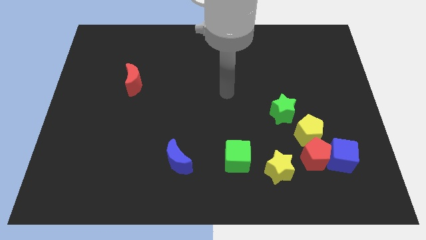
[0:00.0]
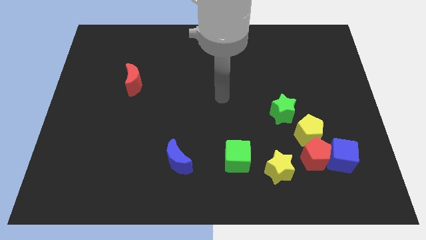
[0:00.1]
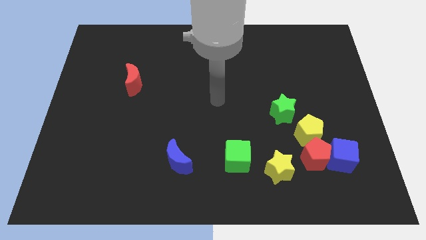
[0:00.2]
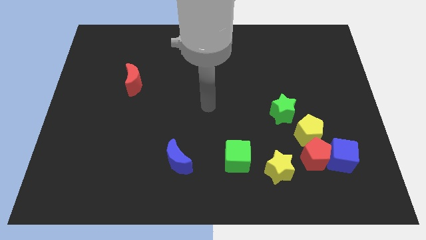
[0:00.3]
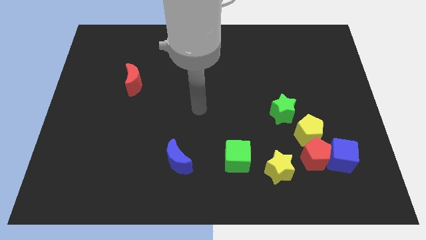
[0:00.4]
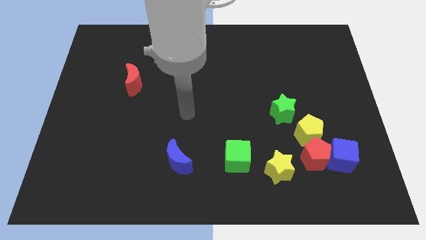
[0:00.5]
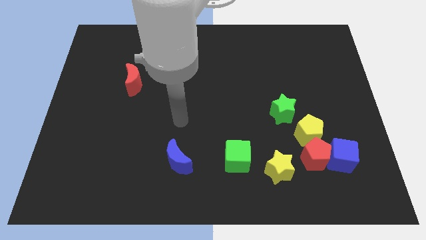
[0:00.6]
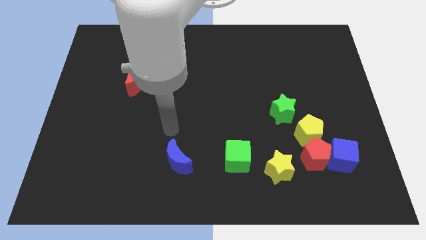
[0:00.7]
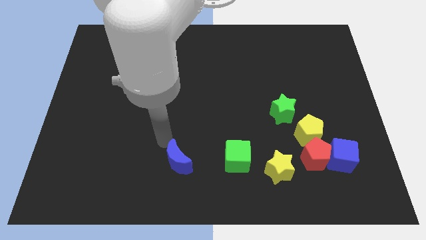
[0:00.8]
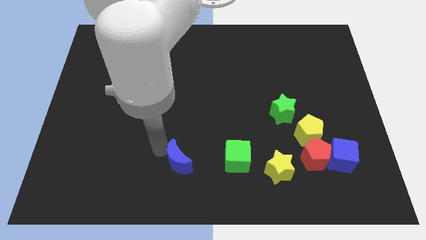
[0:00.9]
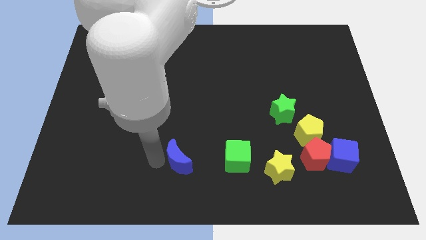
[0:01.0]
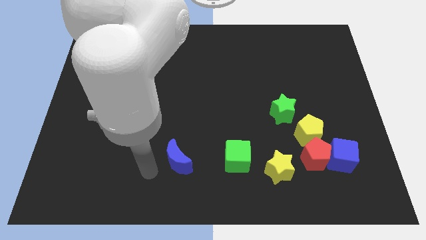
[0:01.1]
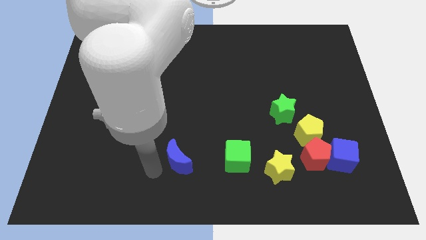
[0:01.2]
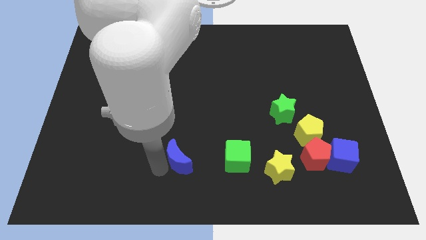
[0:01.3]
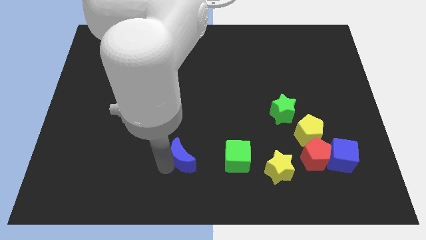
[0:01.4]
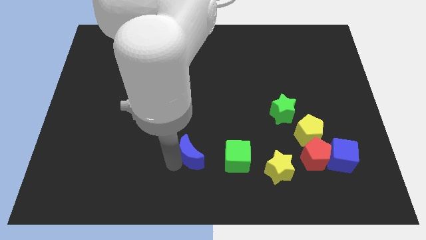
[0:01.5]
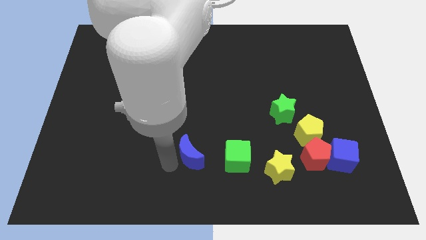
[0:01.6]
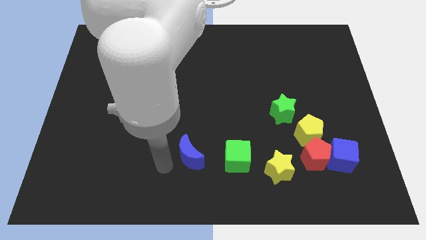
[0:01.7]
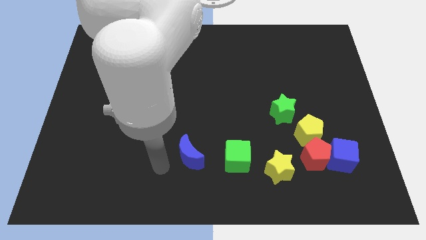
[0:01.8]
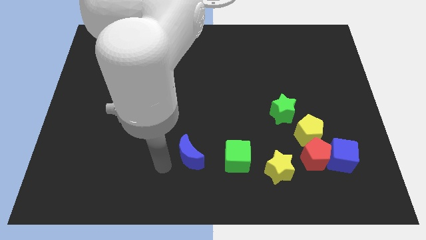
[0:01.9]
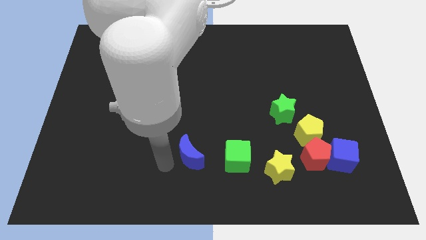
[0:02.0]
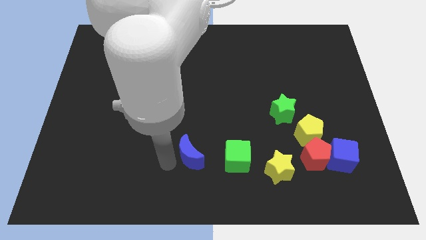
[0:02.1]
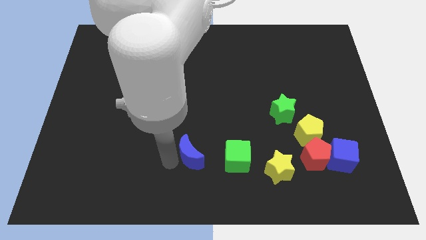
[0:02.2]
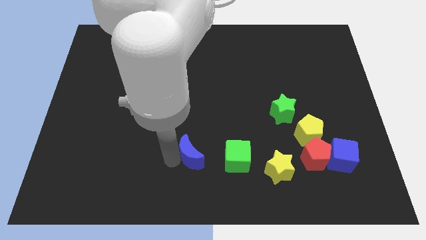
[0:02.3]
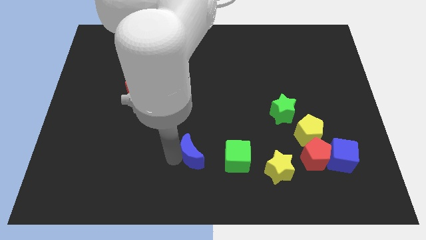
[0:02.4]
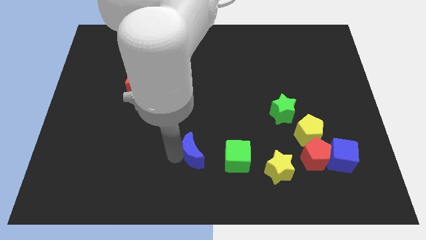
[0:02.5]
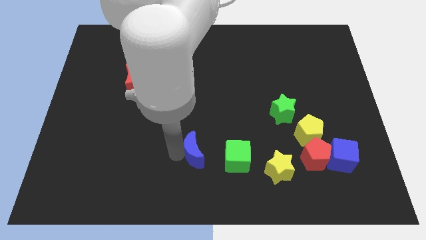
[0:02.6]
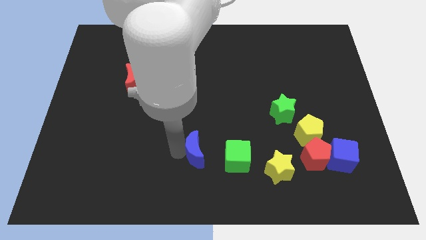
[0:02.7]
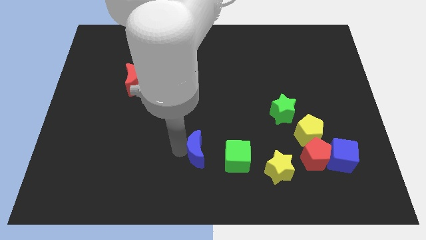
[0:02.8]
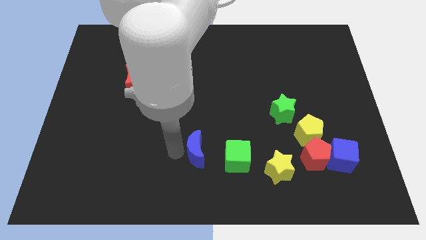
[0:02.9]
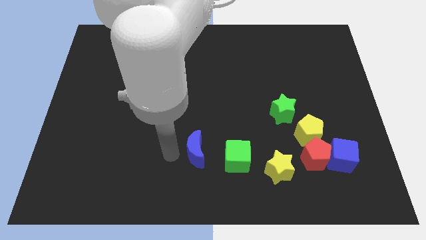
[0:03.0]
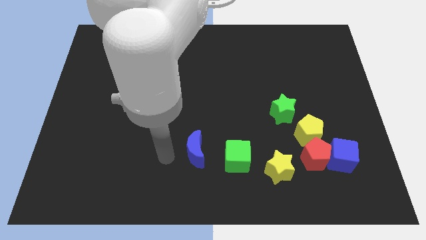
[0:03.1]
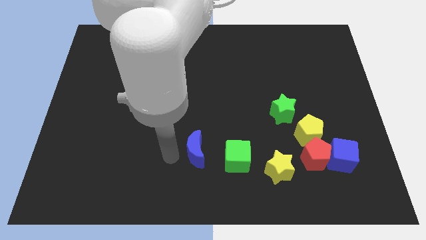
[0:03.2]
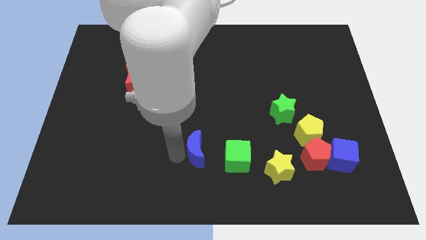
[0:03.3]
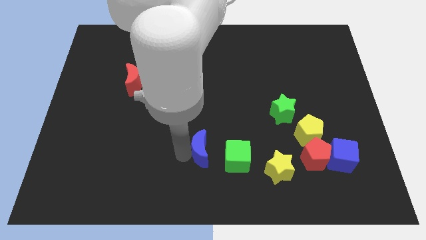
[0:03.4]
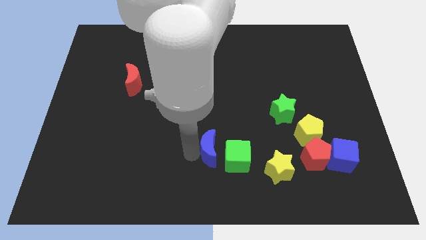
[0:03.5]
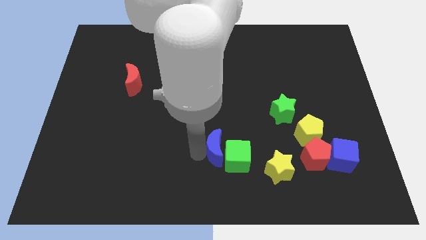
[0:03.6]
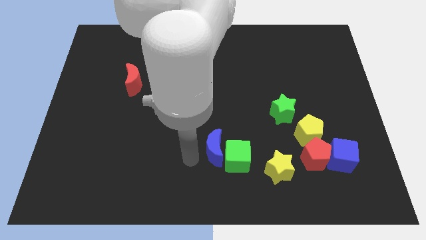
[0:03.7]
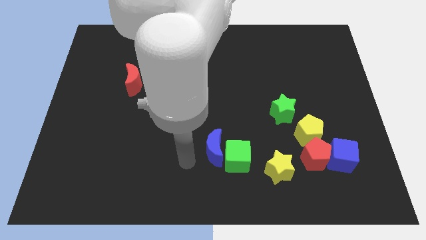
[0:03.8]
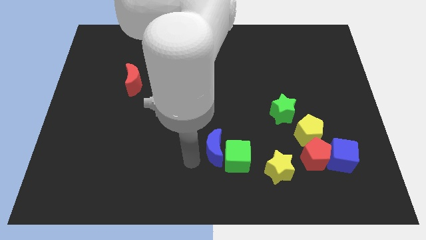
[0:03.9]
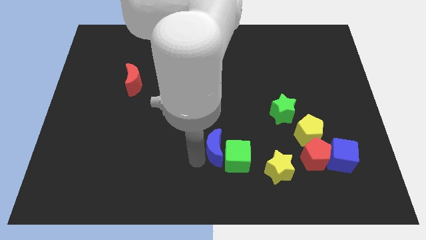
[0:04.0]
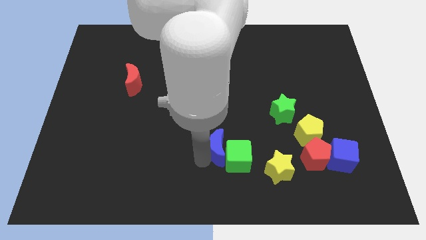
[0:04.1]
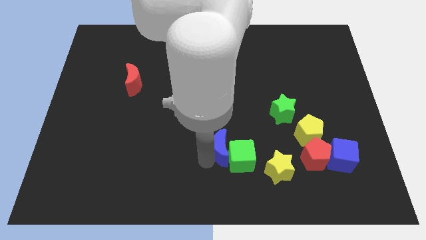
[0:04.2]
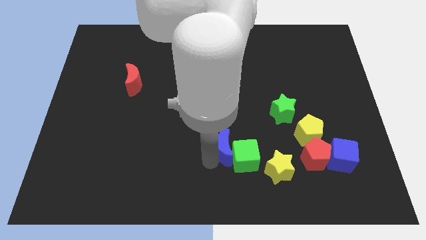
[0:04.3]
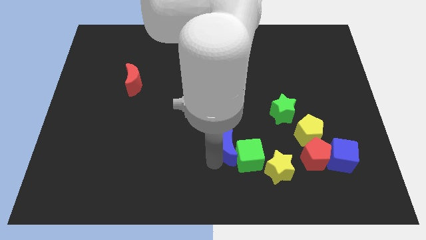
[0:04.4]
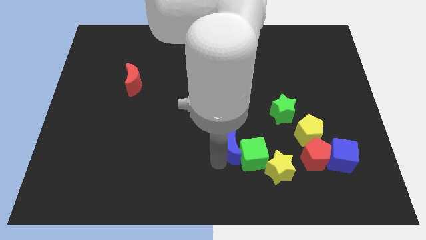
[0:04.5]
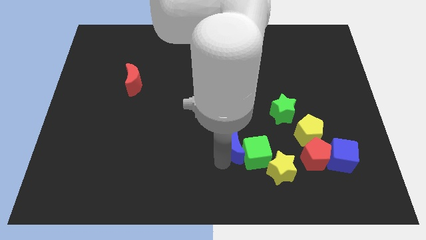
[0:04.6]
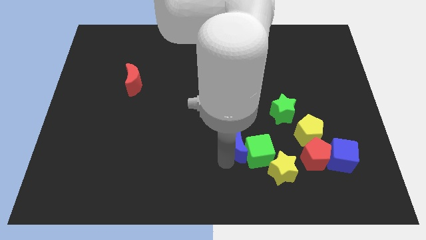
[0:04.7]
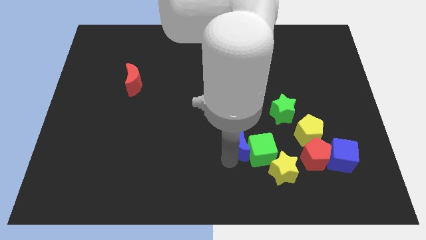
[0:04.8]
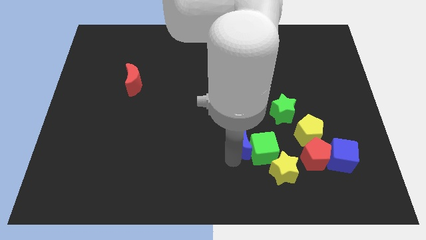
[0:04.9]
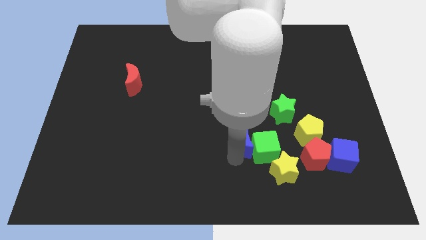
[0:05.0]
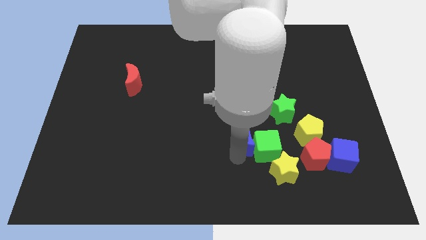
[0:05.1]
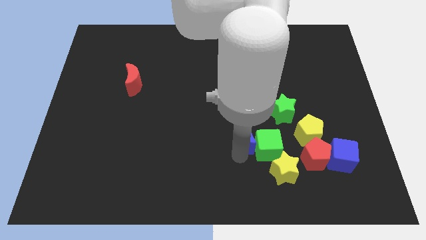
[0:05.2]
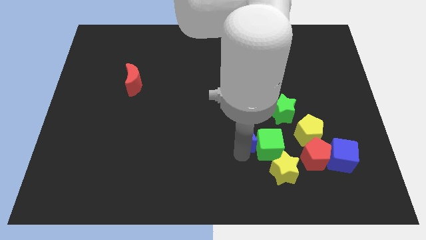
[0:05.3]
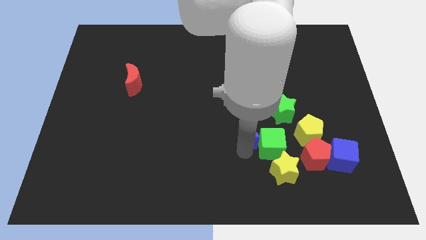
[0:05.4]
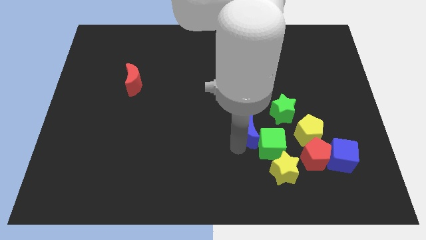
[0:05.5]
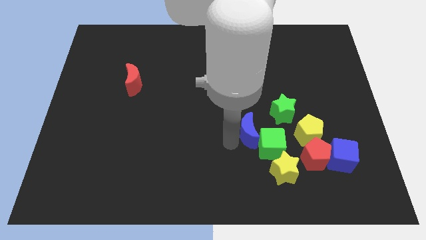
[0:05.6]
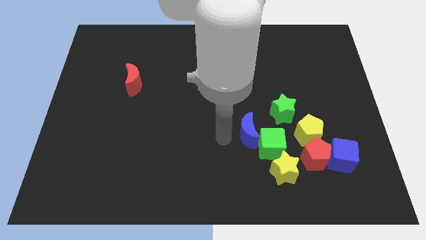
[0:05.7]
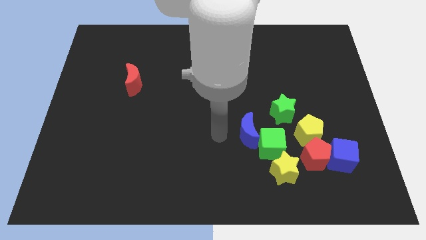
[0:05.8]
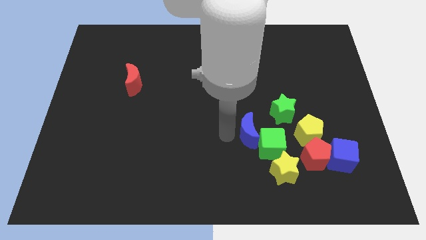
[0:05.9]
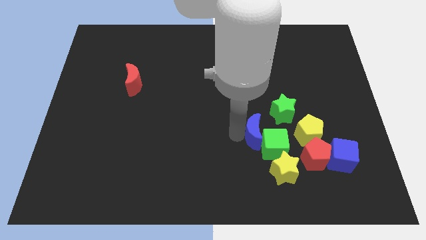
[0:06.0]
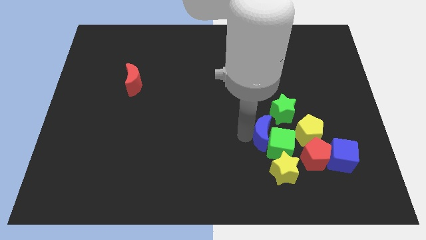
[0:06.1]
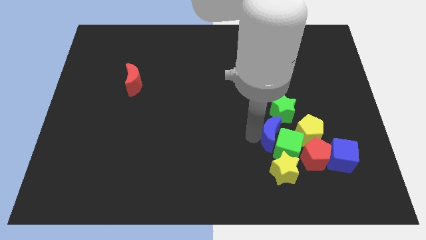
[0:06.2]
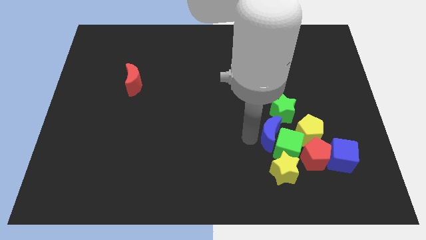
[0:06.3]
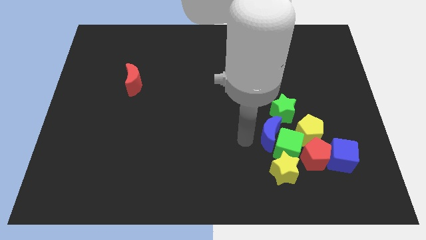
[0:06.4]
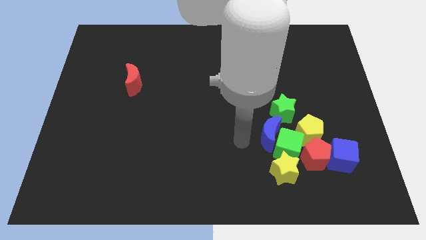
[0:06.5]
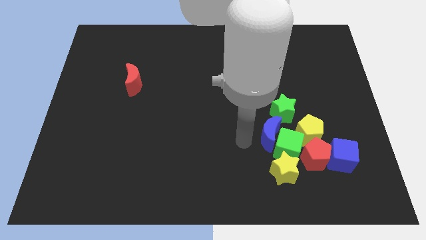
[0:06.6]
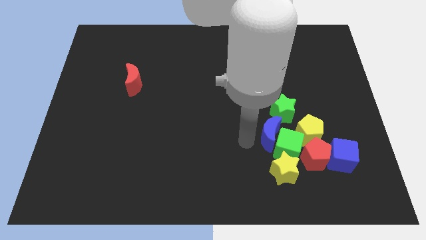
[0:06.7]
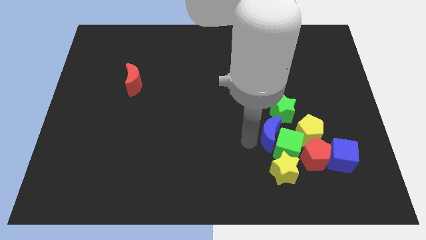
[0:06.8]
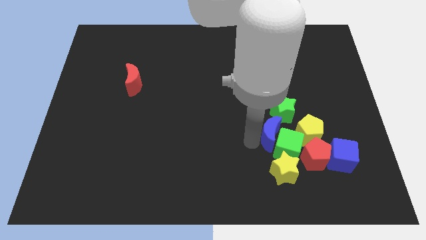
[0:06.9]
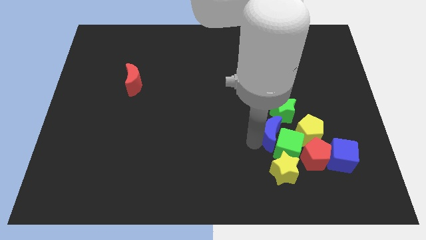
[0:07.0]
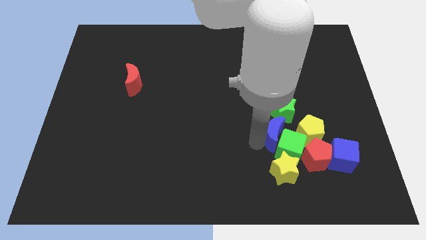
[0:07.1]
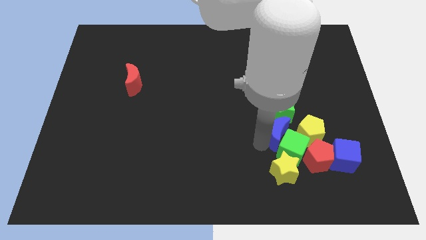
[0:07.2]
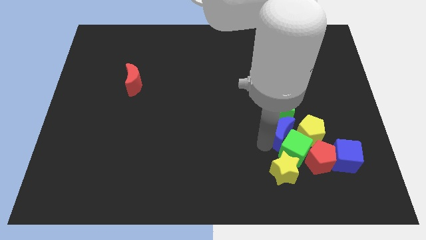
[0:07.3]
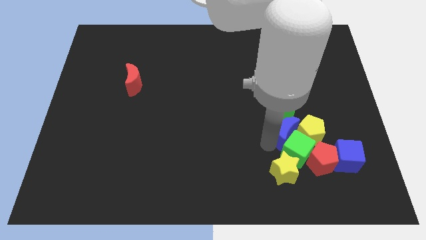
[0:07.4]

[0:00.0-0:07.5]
push the blue moon towards the yellow pentagon
